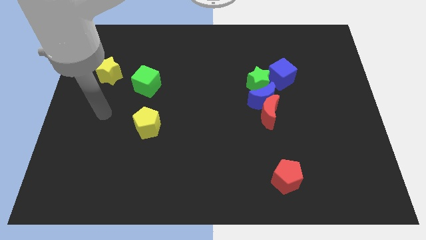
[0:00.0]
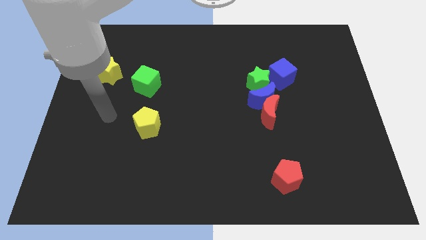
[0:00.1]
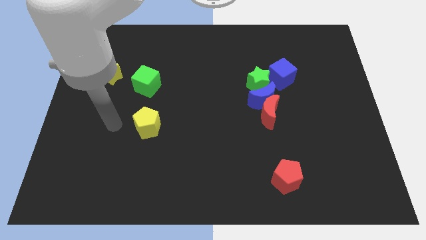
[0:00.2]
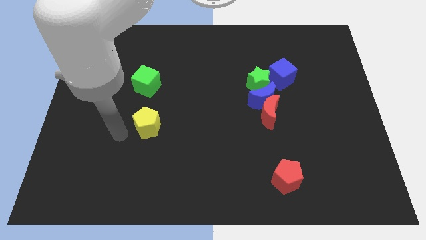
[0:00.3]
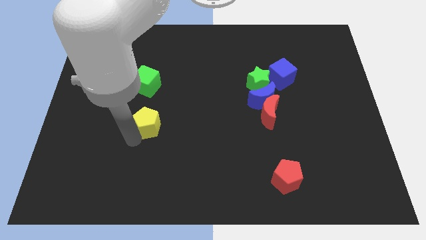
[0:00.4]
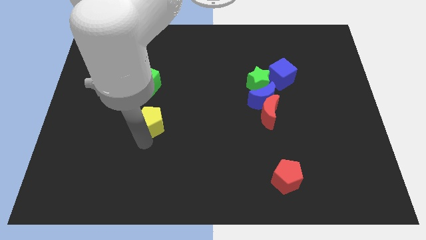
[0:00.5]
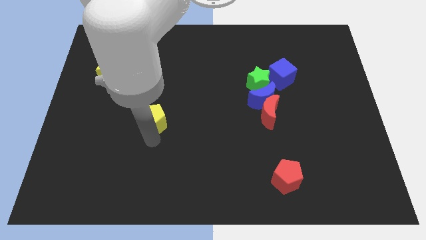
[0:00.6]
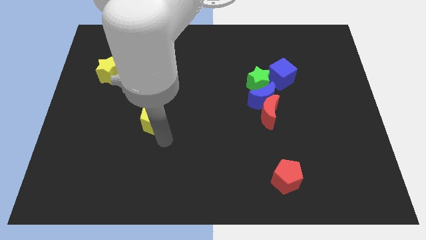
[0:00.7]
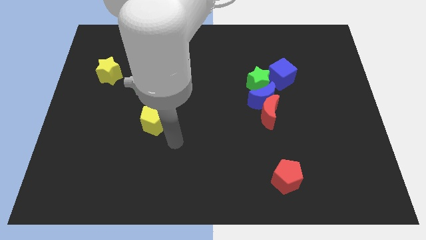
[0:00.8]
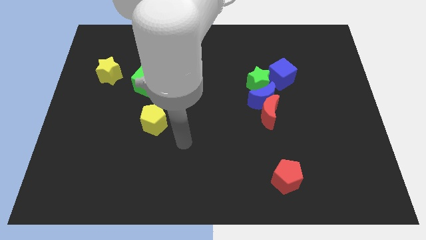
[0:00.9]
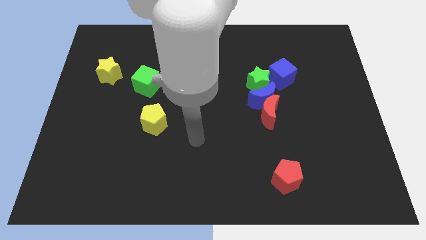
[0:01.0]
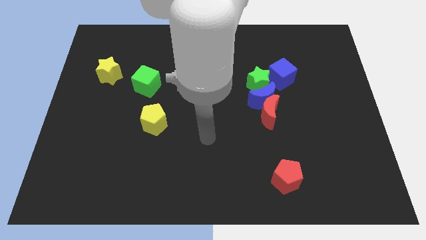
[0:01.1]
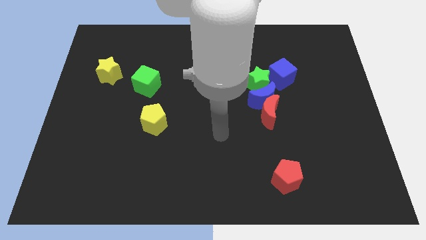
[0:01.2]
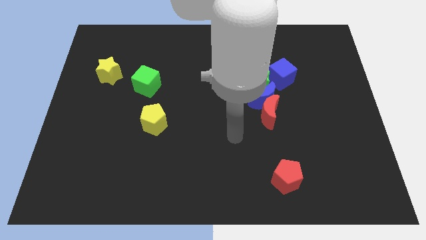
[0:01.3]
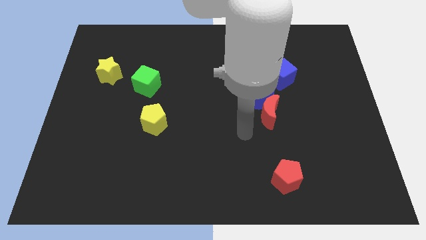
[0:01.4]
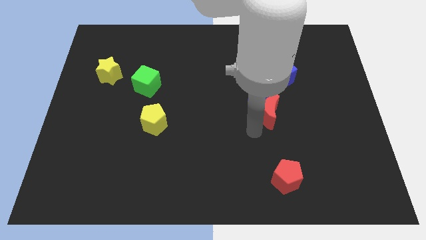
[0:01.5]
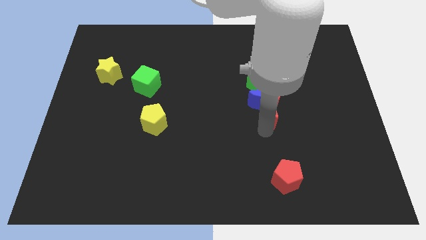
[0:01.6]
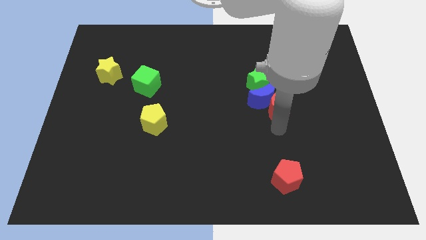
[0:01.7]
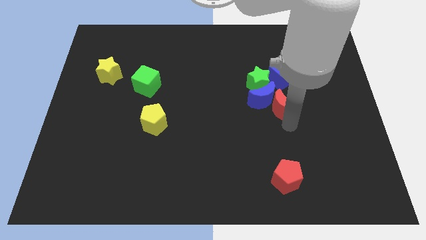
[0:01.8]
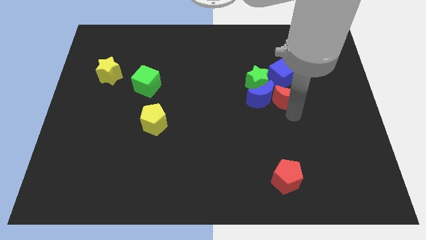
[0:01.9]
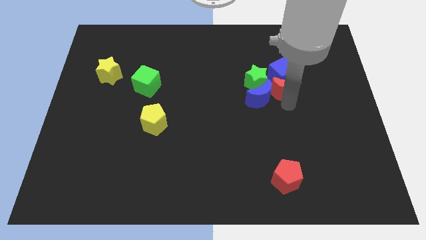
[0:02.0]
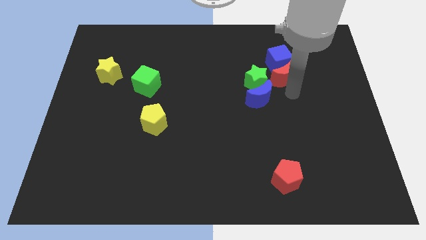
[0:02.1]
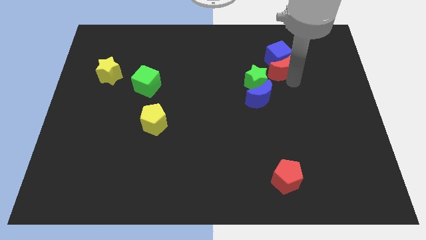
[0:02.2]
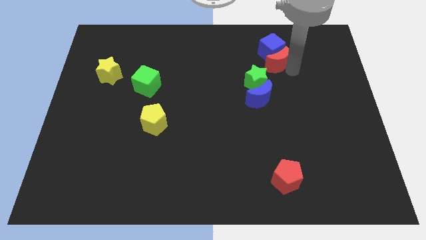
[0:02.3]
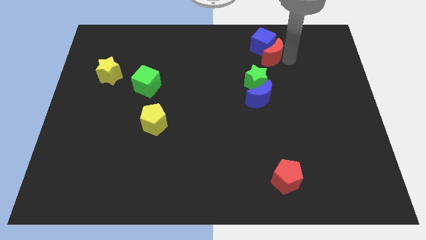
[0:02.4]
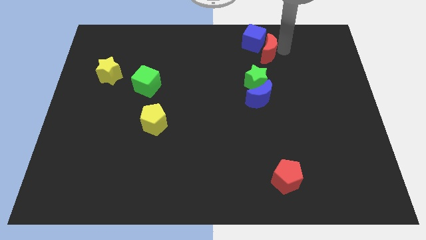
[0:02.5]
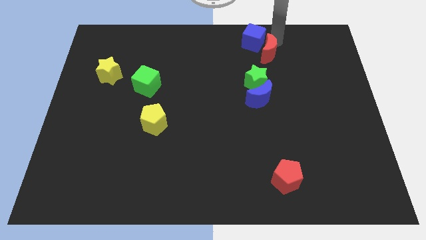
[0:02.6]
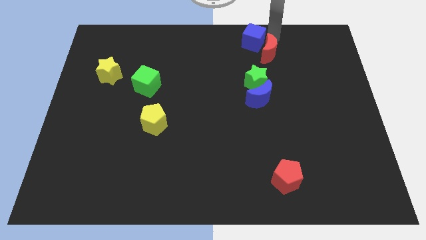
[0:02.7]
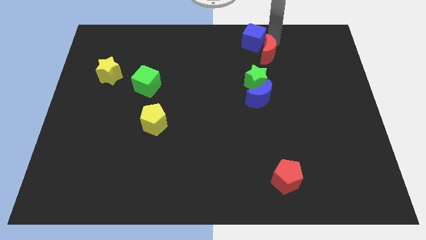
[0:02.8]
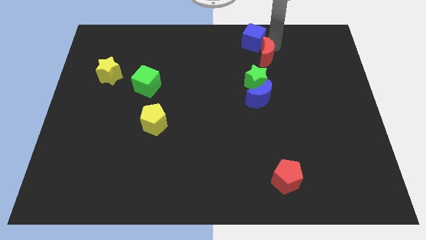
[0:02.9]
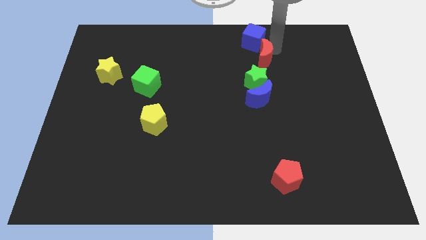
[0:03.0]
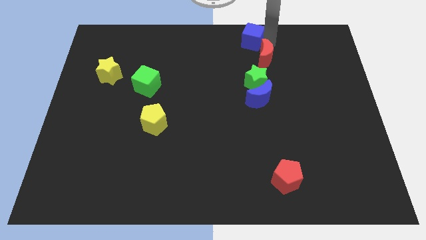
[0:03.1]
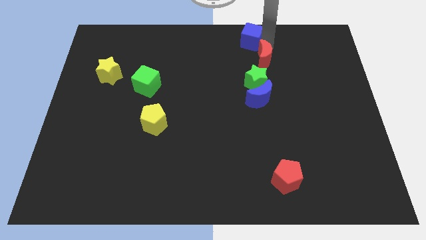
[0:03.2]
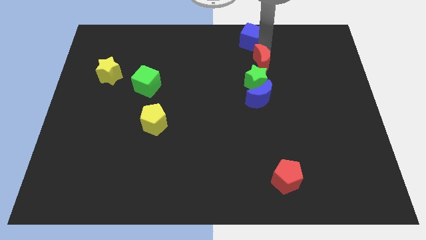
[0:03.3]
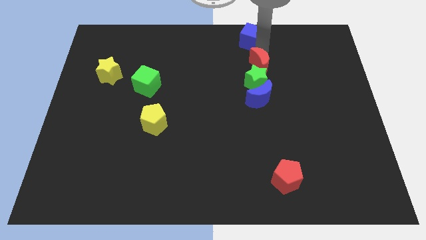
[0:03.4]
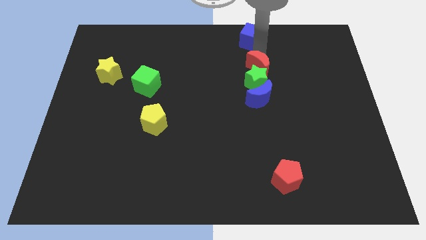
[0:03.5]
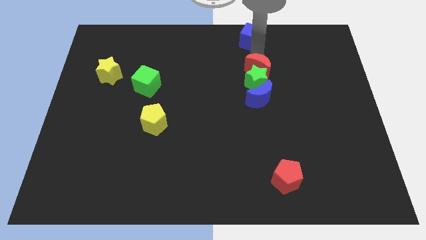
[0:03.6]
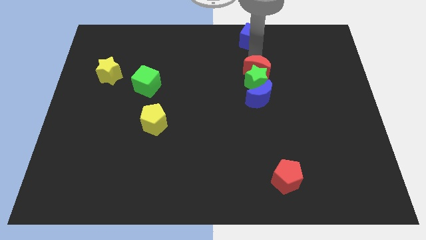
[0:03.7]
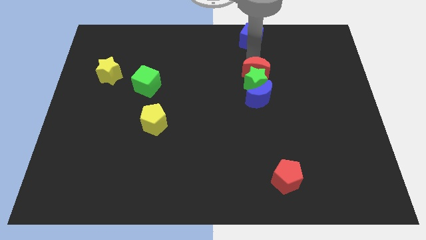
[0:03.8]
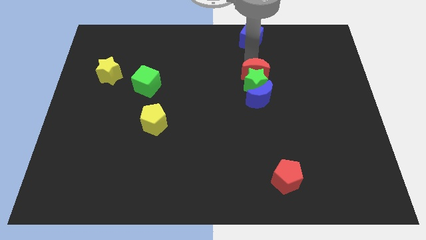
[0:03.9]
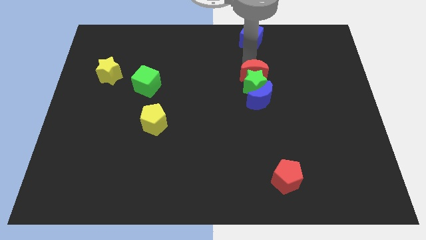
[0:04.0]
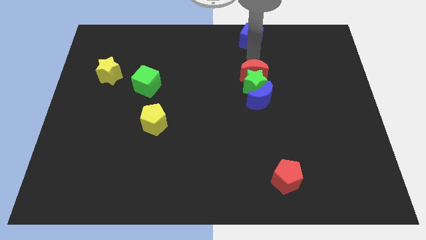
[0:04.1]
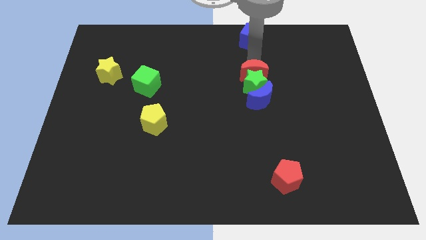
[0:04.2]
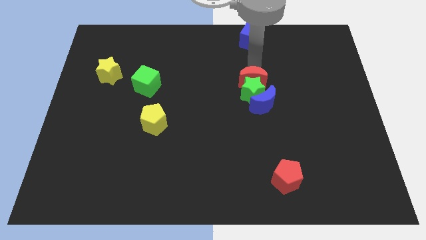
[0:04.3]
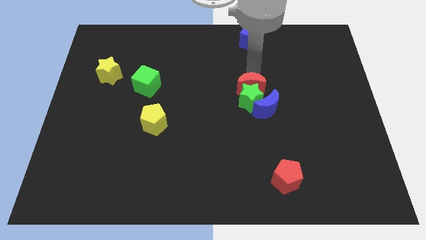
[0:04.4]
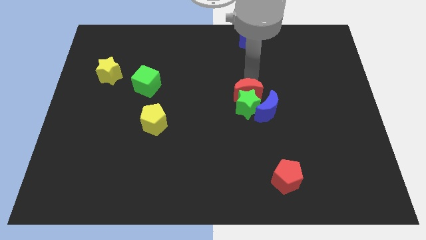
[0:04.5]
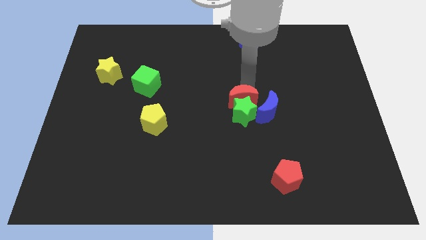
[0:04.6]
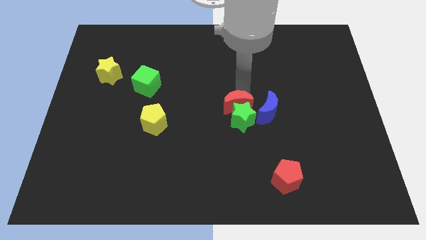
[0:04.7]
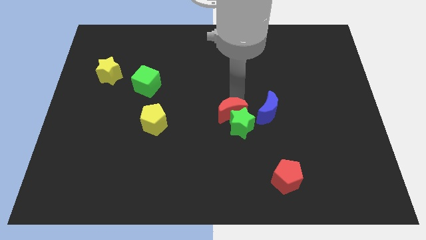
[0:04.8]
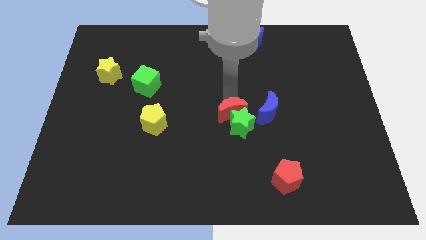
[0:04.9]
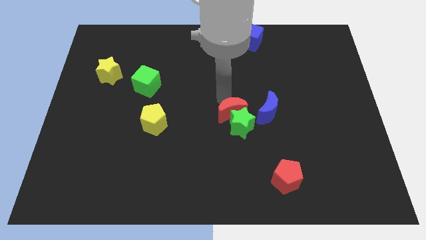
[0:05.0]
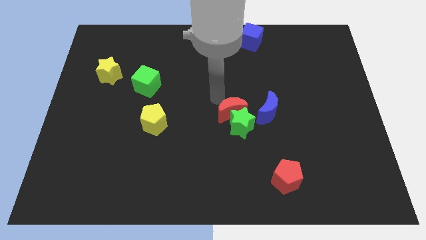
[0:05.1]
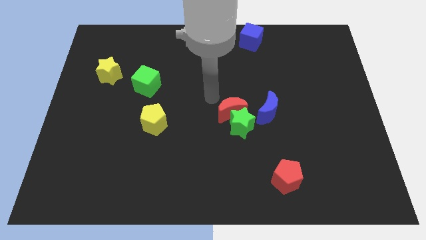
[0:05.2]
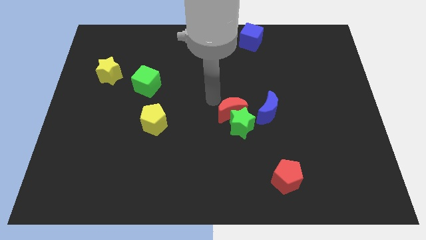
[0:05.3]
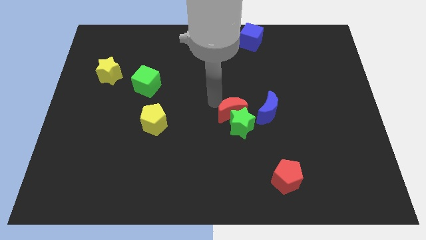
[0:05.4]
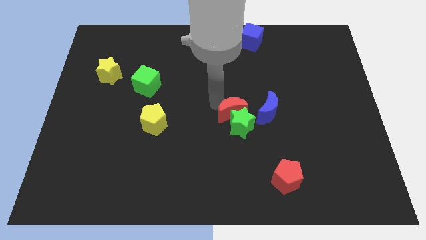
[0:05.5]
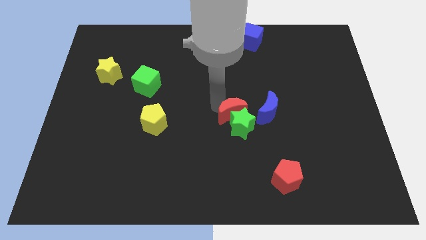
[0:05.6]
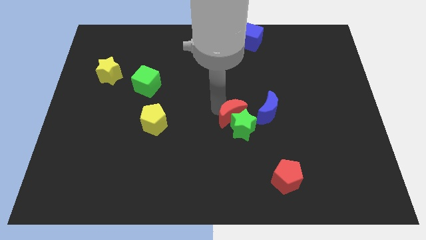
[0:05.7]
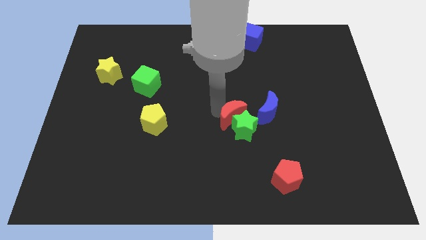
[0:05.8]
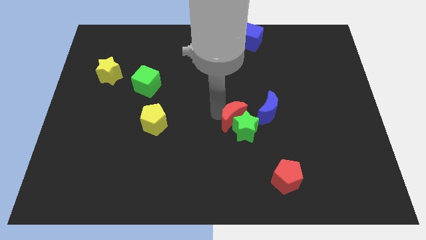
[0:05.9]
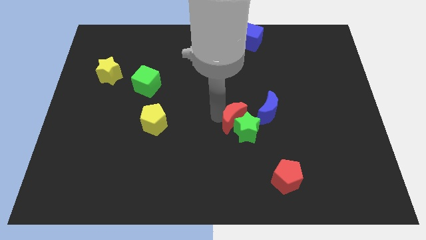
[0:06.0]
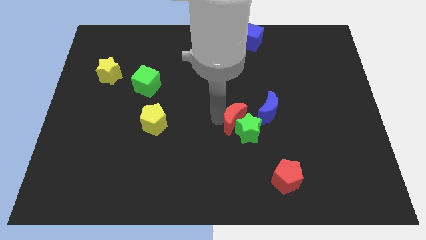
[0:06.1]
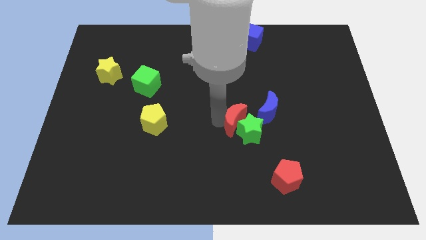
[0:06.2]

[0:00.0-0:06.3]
slightly move the red moon diagonally downwards and to the left

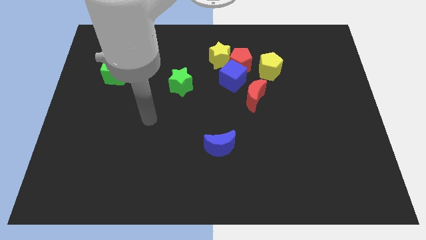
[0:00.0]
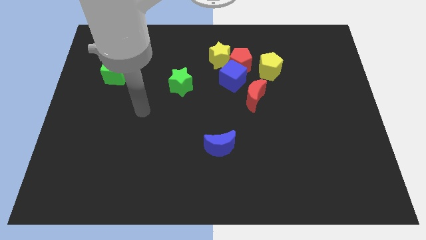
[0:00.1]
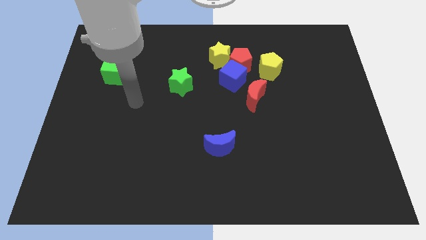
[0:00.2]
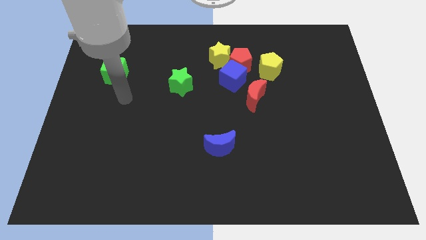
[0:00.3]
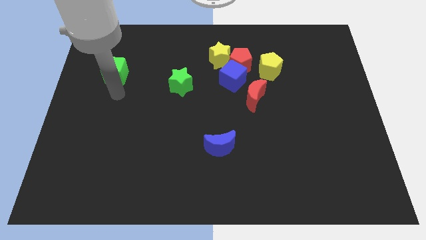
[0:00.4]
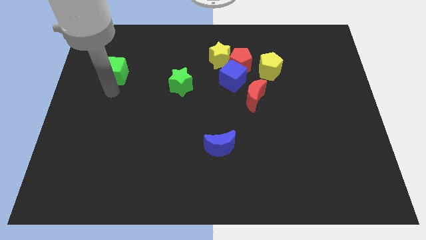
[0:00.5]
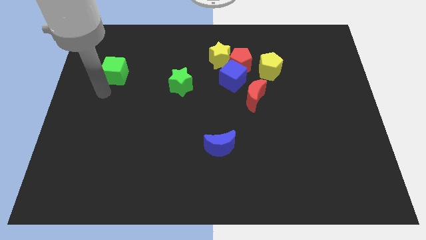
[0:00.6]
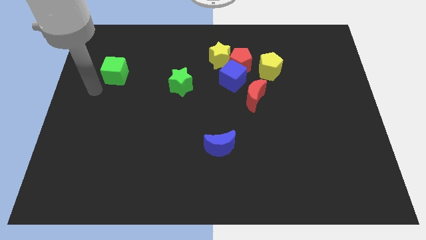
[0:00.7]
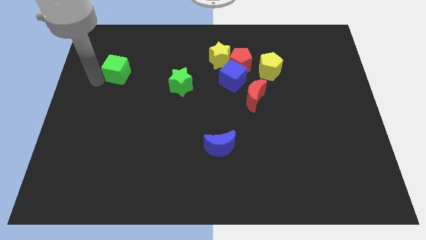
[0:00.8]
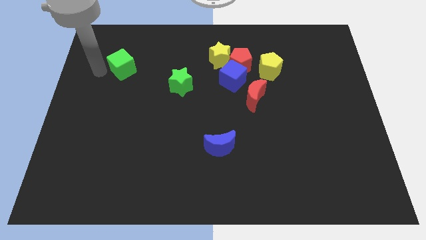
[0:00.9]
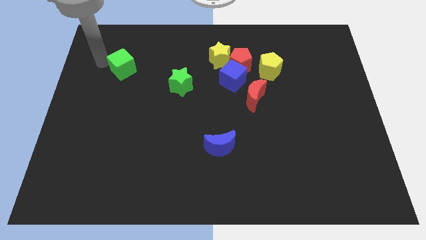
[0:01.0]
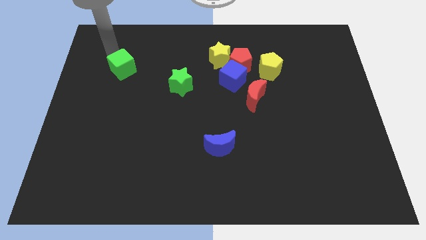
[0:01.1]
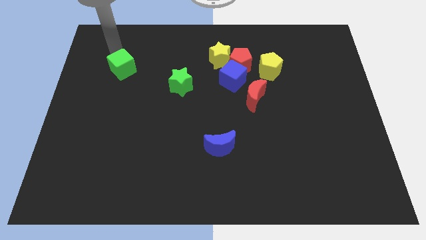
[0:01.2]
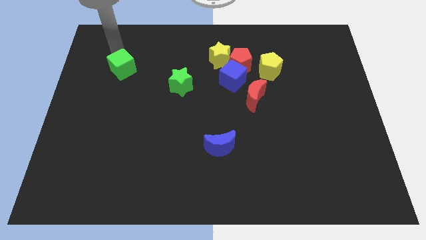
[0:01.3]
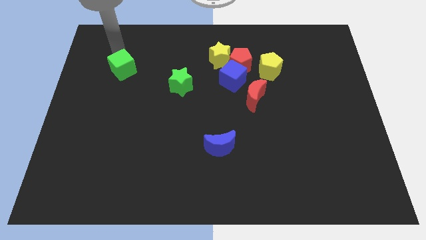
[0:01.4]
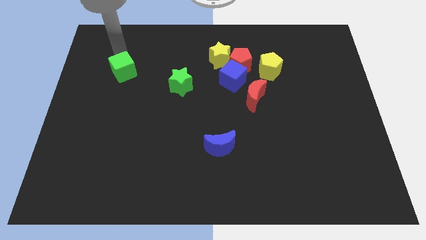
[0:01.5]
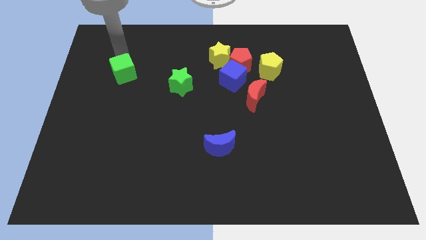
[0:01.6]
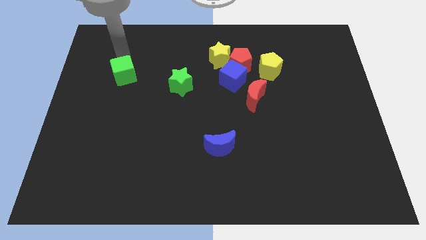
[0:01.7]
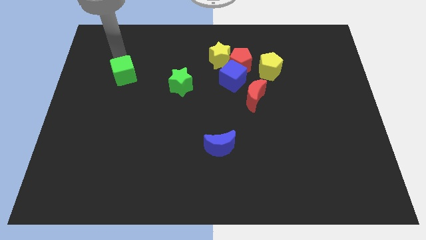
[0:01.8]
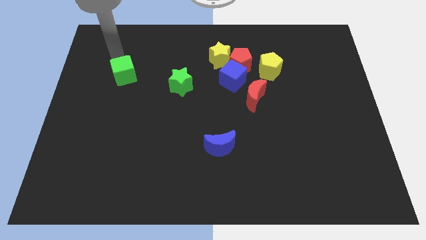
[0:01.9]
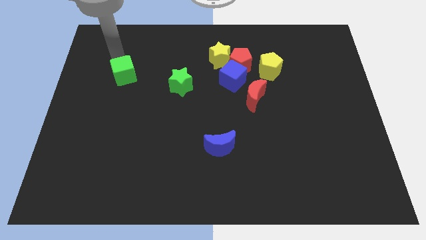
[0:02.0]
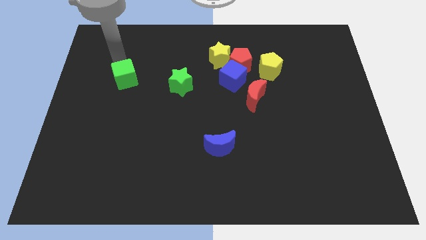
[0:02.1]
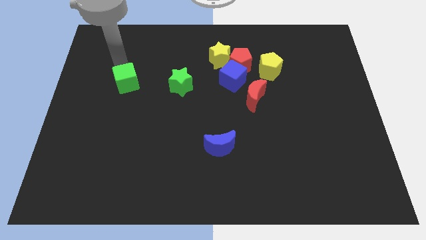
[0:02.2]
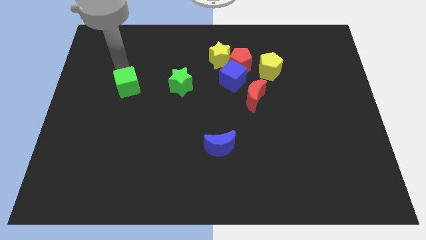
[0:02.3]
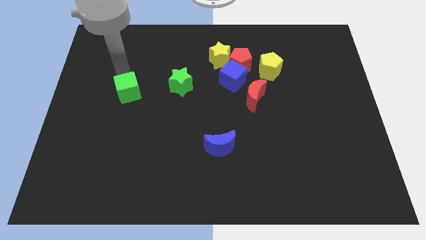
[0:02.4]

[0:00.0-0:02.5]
slightly slide the green cube diagonally downwards and to the right
